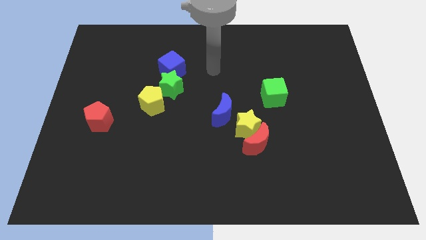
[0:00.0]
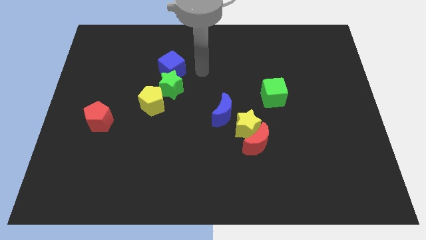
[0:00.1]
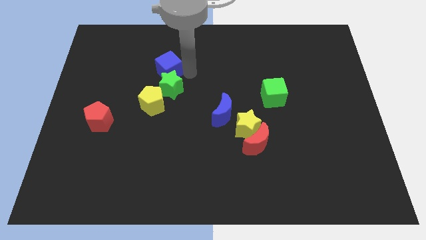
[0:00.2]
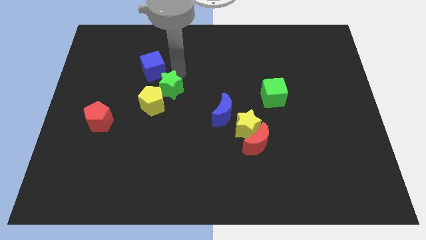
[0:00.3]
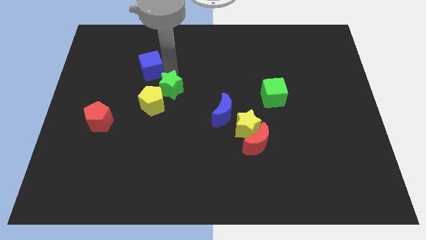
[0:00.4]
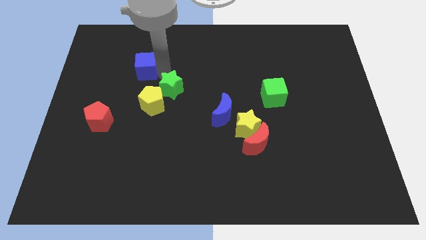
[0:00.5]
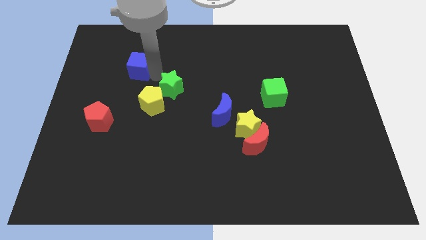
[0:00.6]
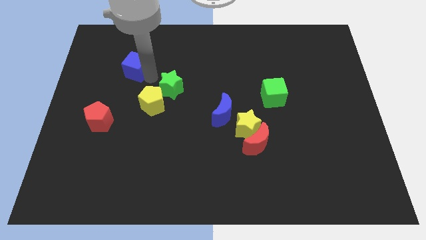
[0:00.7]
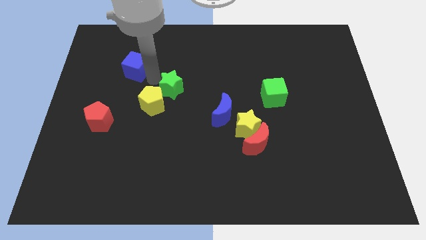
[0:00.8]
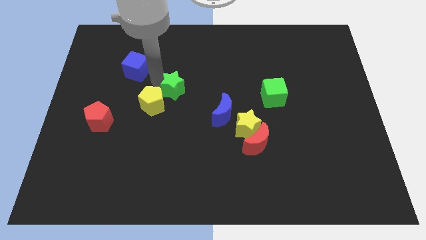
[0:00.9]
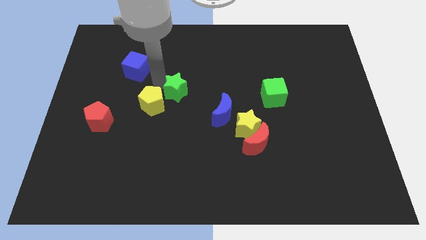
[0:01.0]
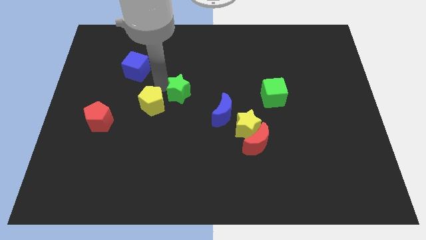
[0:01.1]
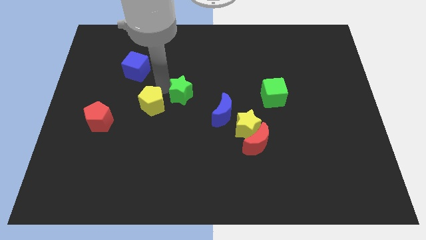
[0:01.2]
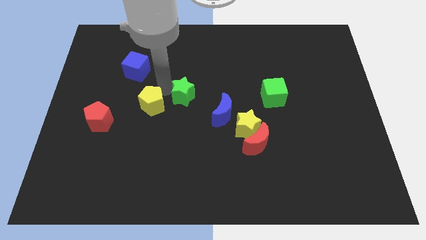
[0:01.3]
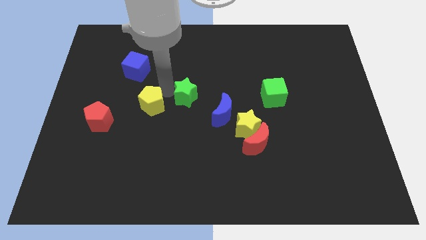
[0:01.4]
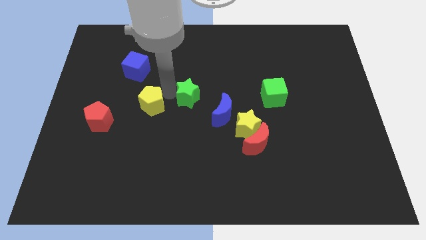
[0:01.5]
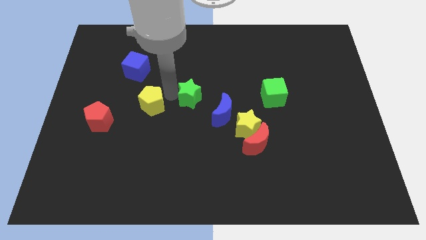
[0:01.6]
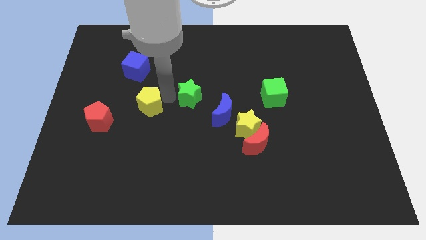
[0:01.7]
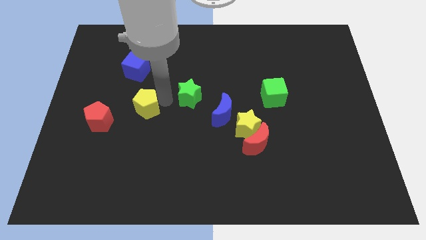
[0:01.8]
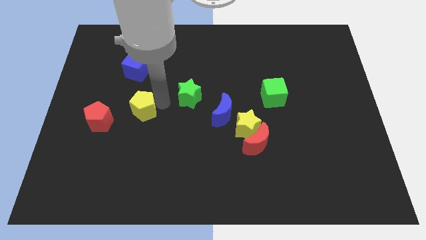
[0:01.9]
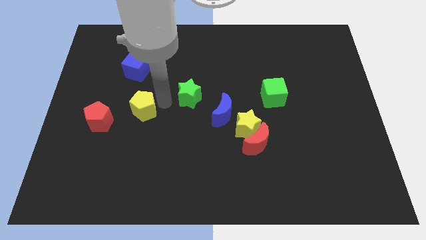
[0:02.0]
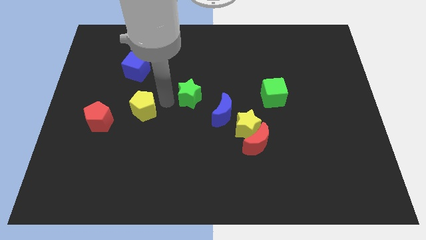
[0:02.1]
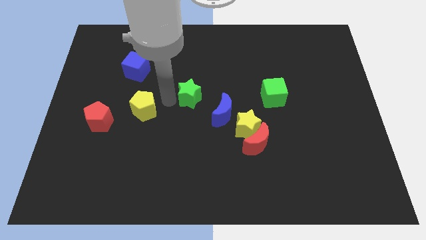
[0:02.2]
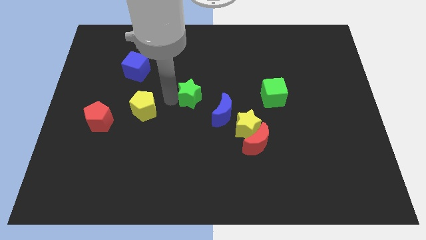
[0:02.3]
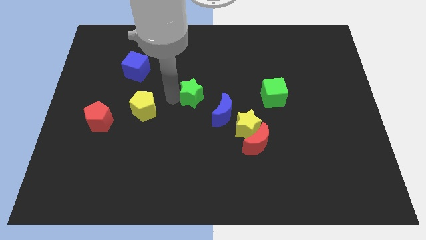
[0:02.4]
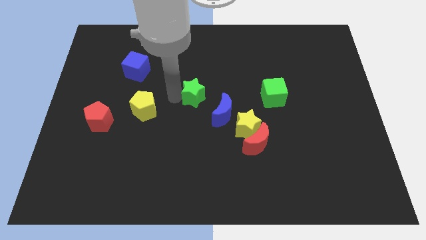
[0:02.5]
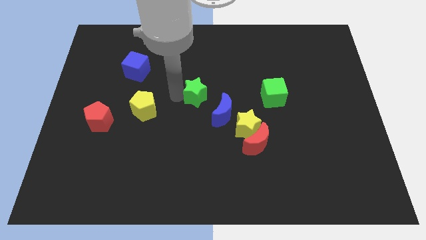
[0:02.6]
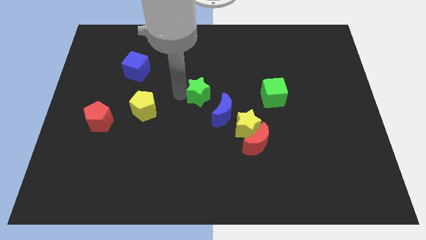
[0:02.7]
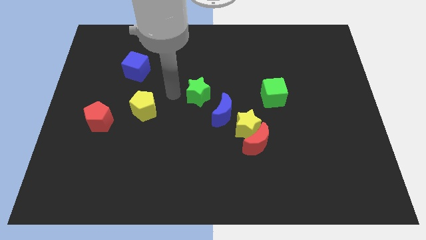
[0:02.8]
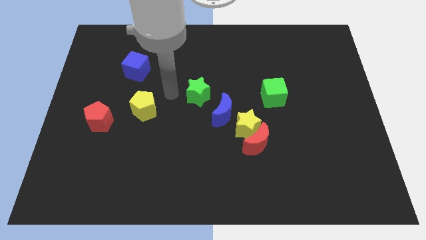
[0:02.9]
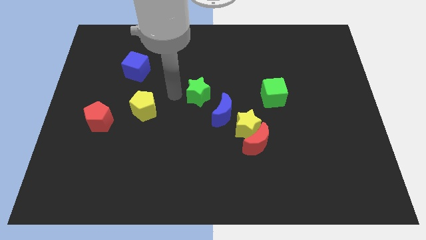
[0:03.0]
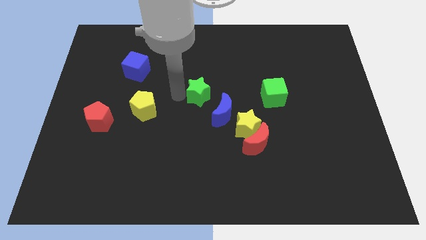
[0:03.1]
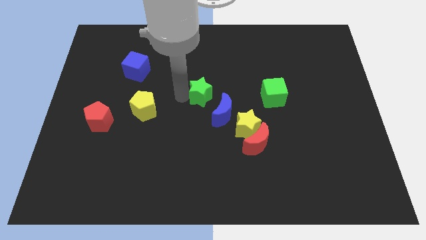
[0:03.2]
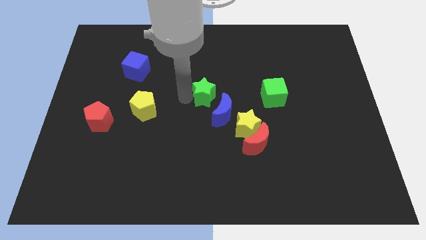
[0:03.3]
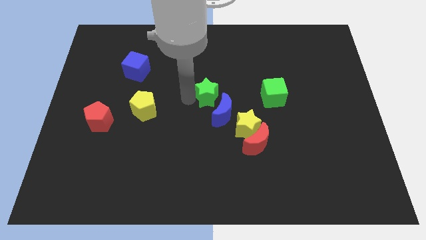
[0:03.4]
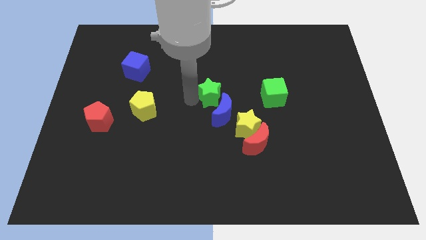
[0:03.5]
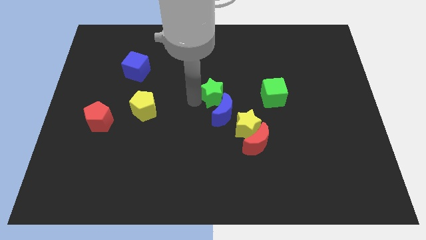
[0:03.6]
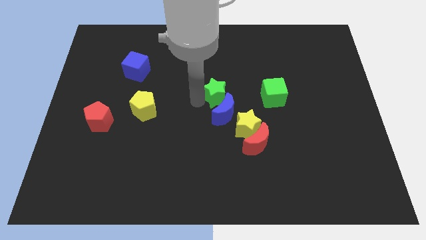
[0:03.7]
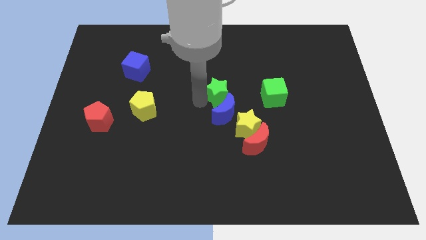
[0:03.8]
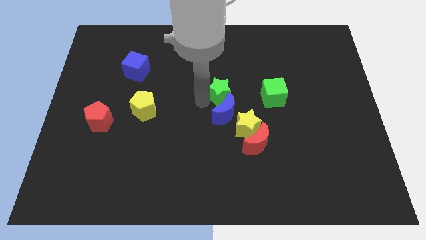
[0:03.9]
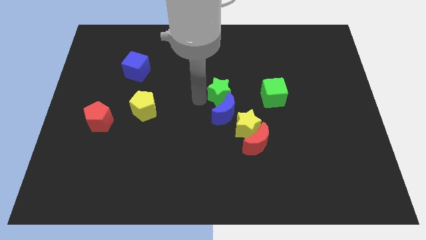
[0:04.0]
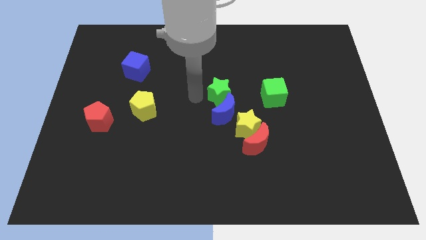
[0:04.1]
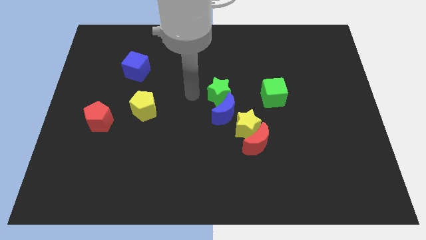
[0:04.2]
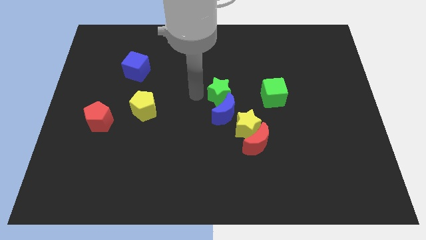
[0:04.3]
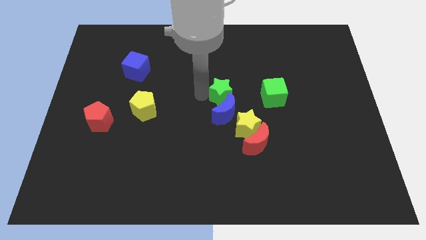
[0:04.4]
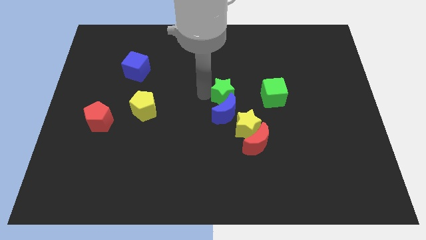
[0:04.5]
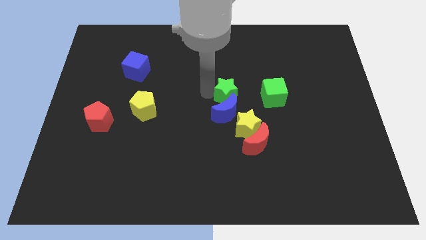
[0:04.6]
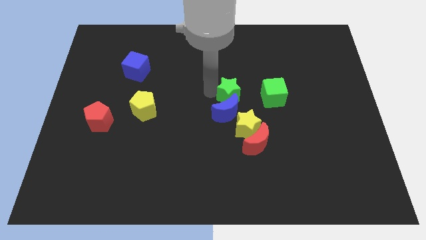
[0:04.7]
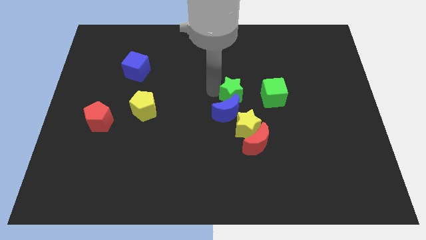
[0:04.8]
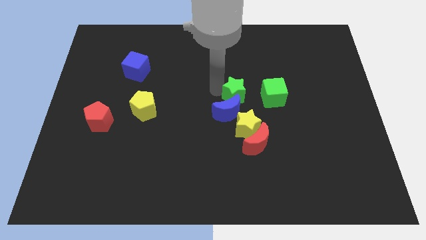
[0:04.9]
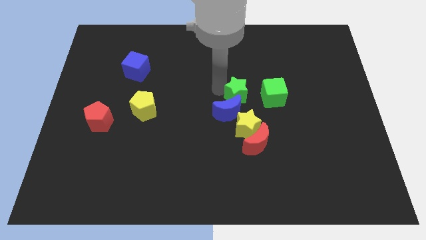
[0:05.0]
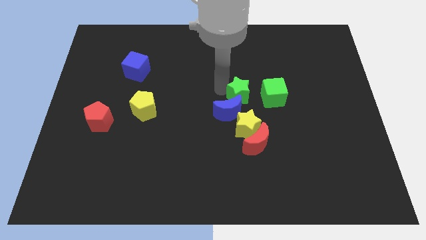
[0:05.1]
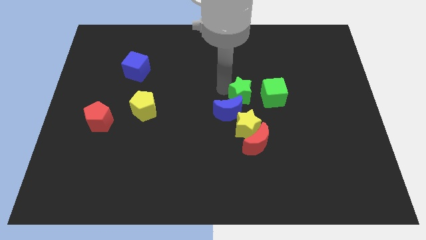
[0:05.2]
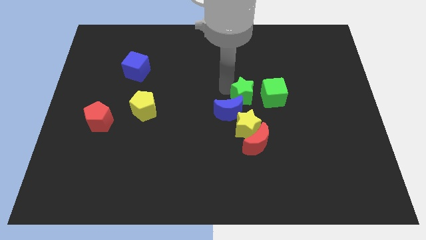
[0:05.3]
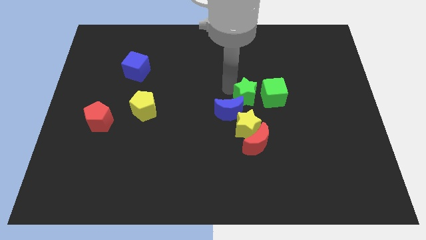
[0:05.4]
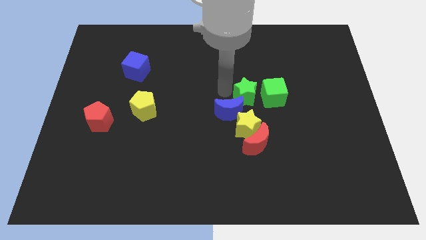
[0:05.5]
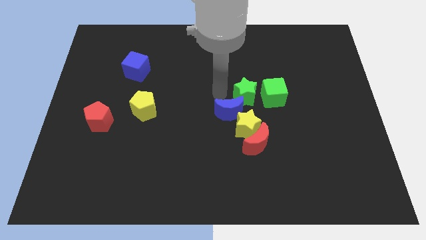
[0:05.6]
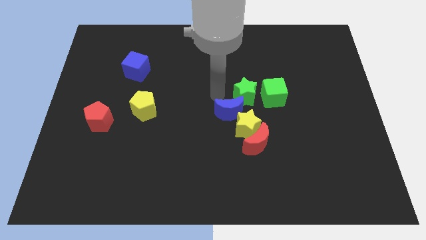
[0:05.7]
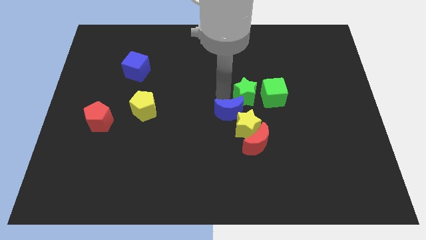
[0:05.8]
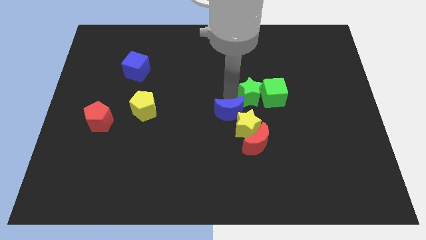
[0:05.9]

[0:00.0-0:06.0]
slide the green star close to the green cube

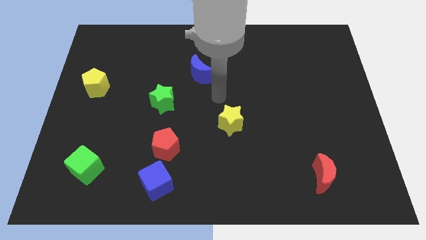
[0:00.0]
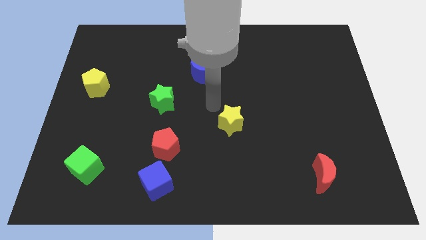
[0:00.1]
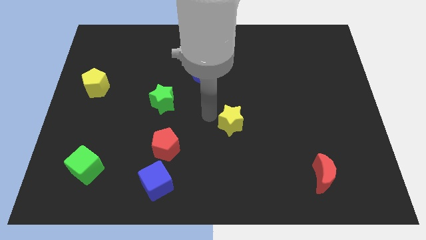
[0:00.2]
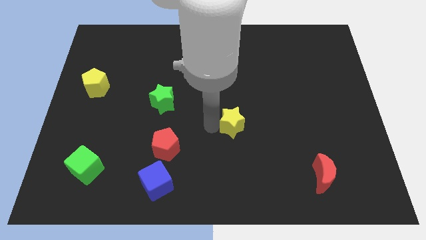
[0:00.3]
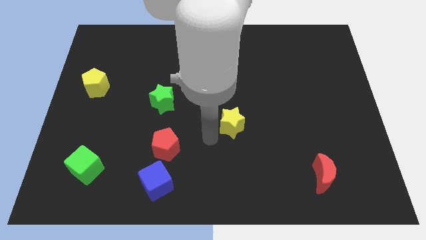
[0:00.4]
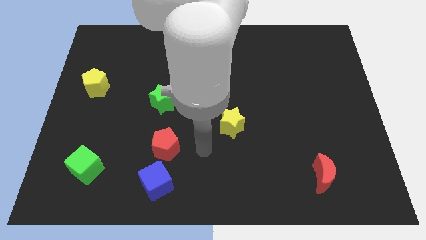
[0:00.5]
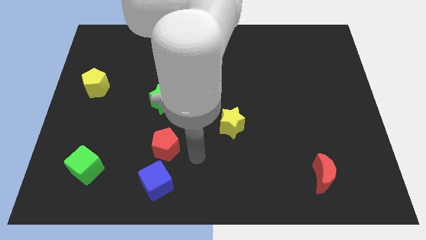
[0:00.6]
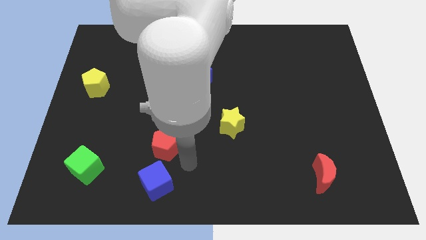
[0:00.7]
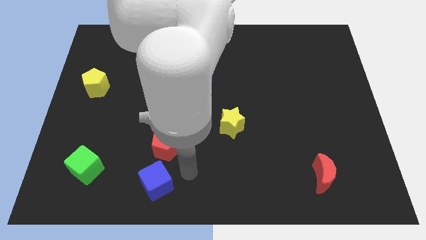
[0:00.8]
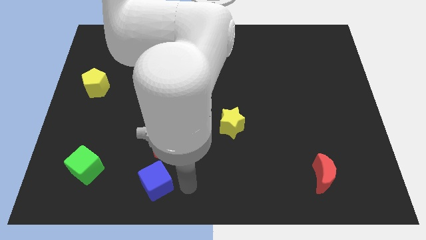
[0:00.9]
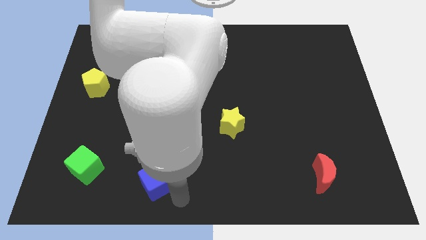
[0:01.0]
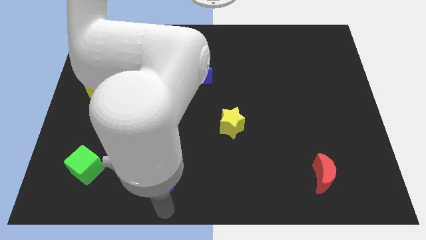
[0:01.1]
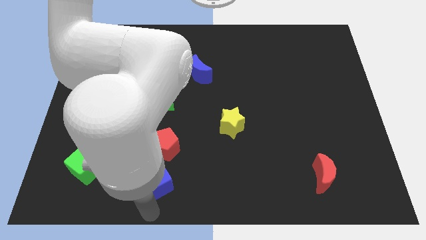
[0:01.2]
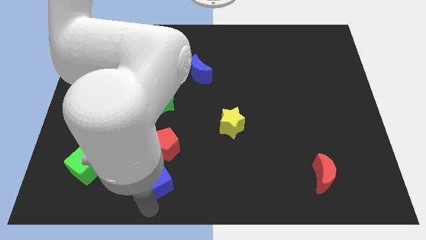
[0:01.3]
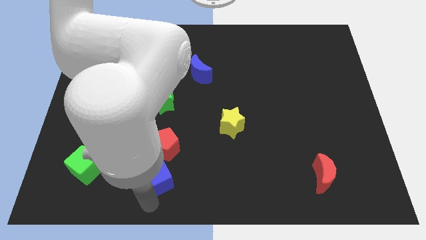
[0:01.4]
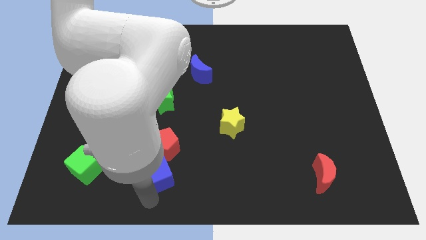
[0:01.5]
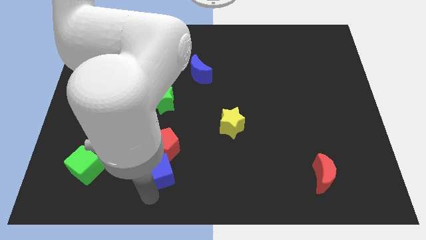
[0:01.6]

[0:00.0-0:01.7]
push the blue cube to the red pentagon
